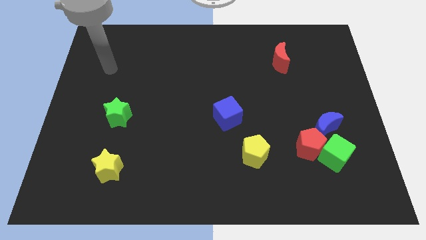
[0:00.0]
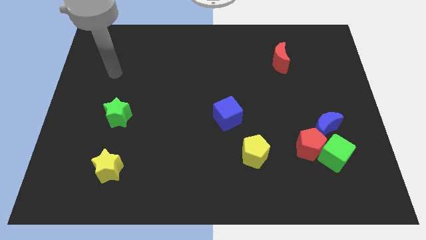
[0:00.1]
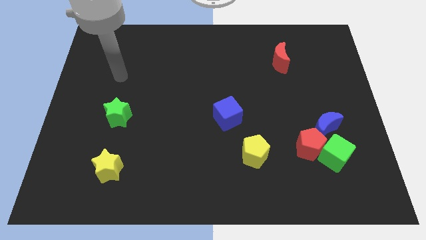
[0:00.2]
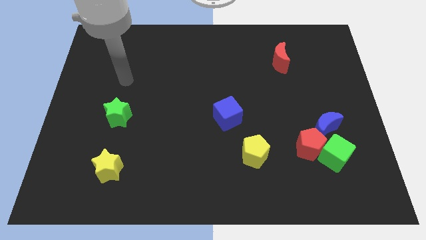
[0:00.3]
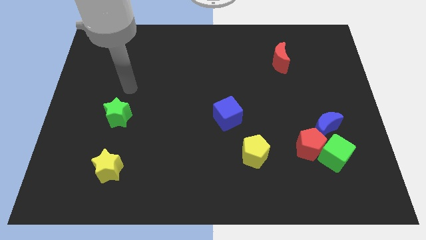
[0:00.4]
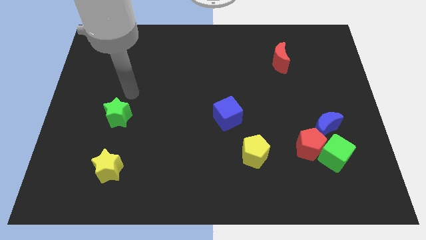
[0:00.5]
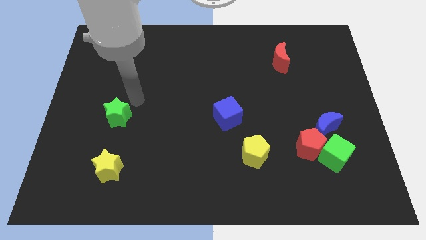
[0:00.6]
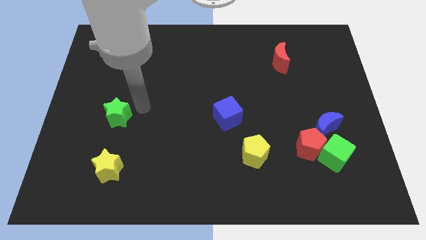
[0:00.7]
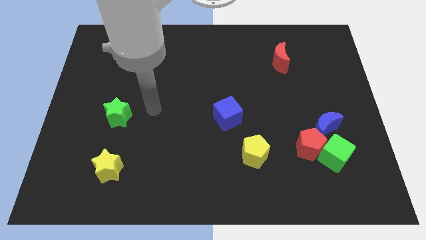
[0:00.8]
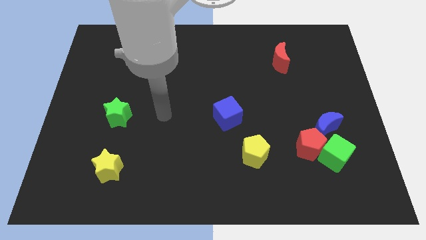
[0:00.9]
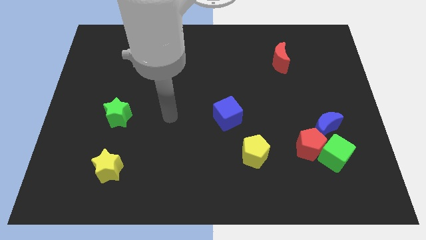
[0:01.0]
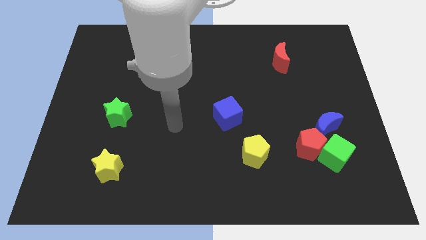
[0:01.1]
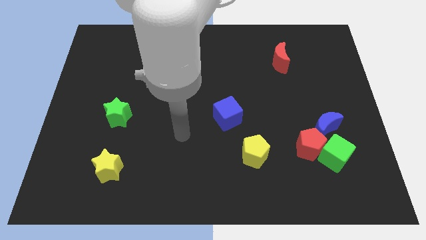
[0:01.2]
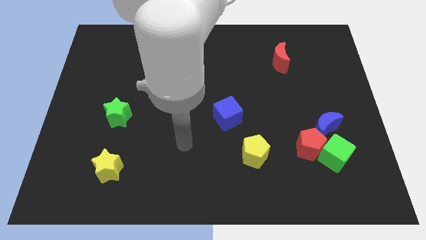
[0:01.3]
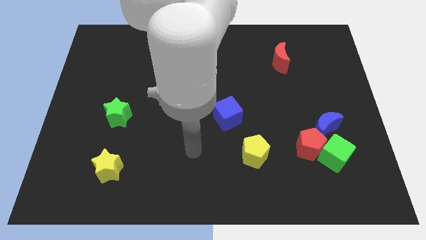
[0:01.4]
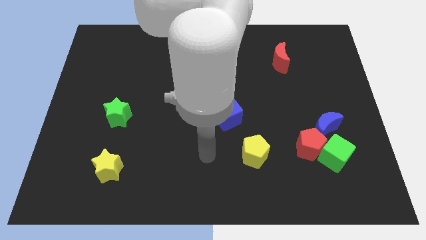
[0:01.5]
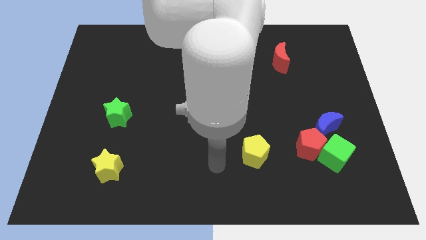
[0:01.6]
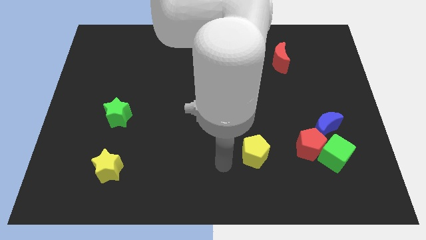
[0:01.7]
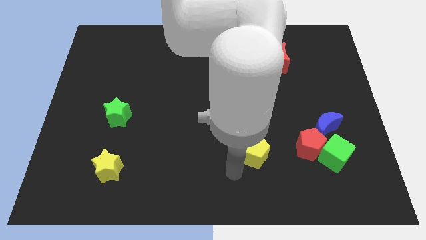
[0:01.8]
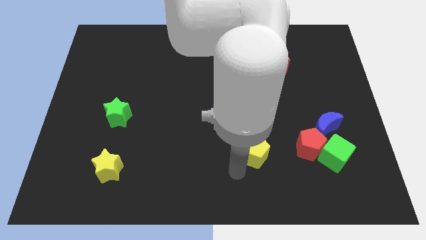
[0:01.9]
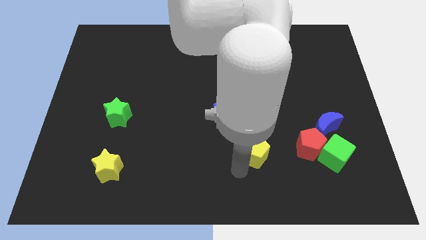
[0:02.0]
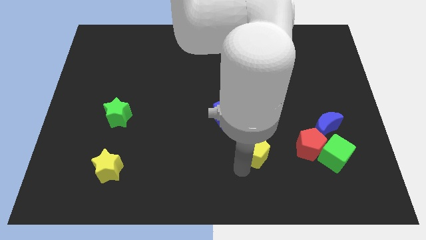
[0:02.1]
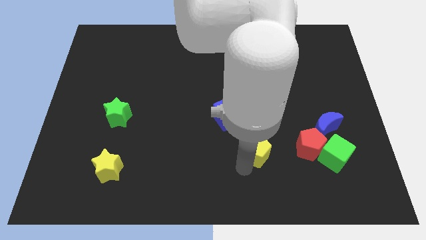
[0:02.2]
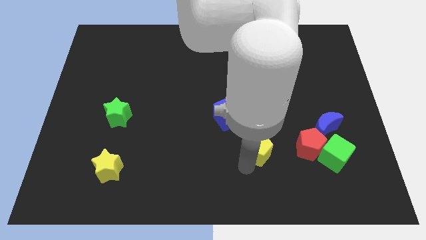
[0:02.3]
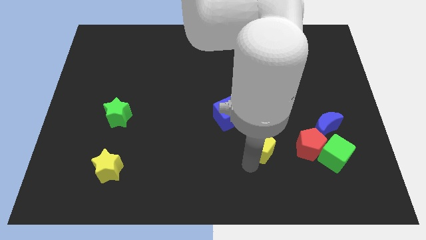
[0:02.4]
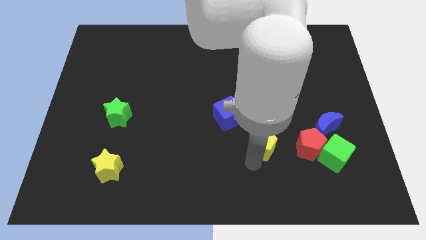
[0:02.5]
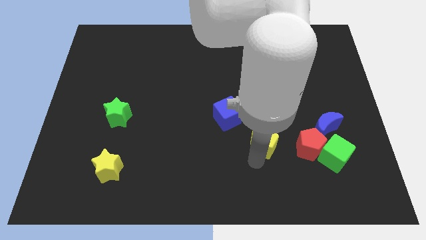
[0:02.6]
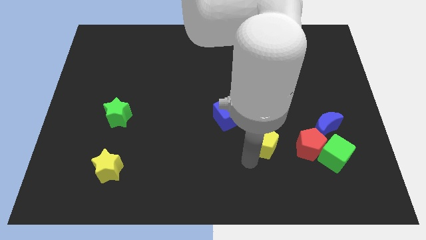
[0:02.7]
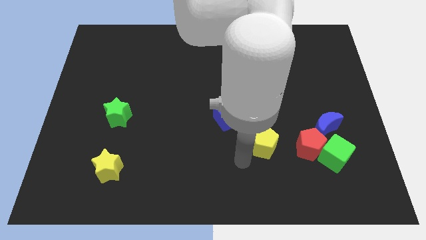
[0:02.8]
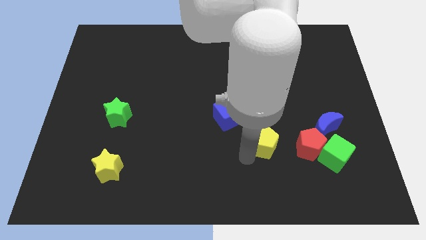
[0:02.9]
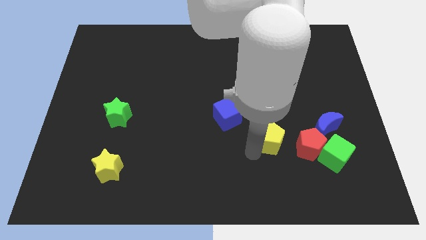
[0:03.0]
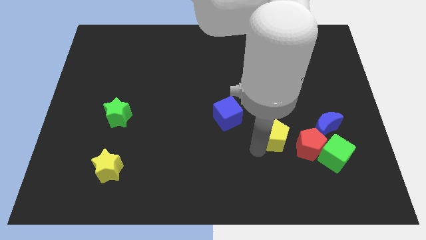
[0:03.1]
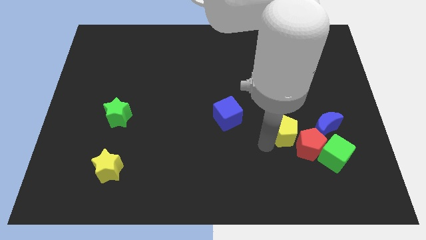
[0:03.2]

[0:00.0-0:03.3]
push the yellow pentagon diagonally up and to the right a bit

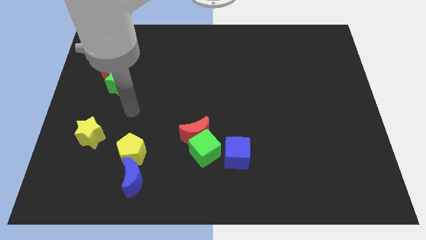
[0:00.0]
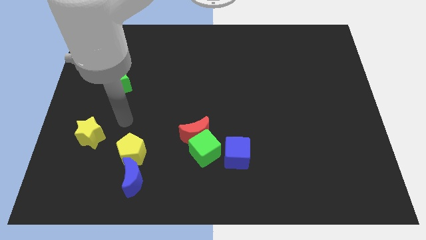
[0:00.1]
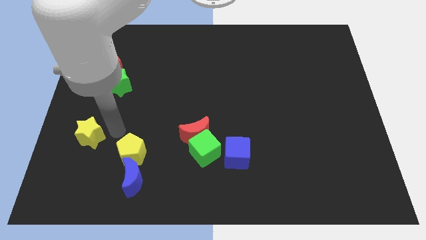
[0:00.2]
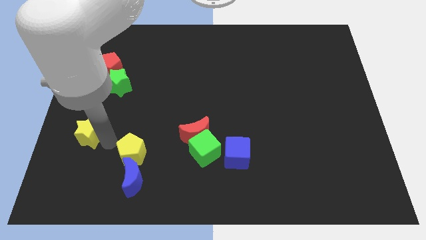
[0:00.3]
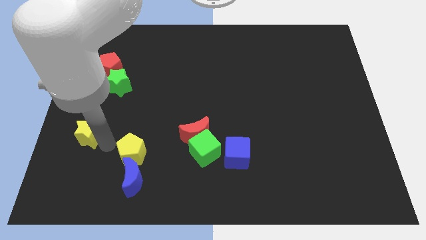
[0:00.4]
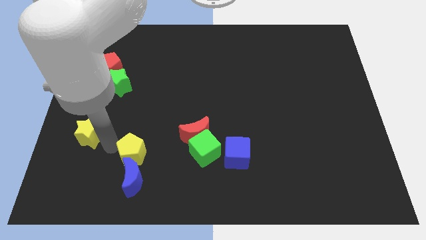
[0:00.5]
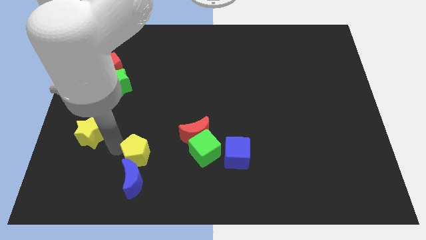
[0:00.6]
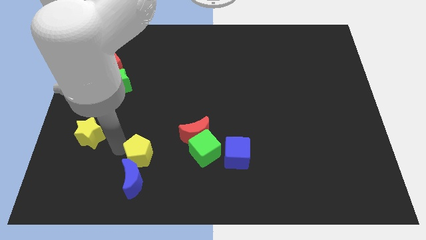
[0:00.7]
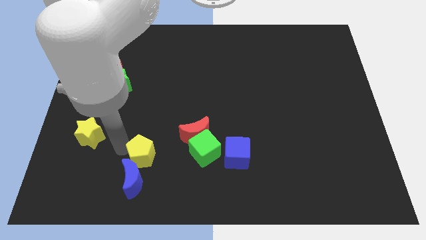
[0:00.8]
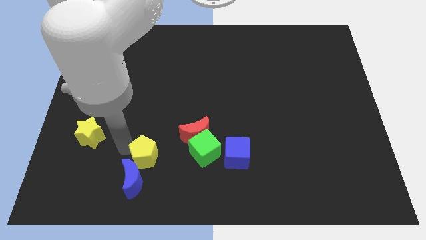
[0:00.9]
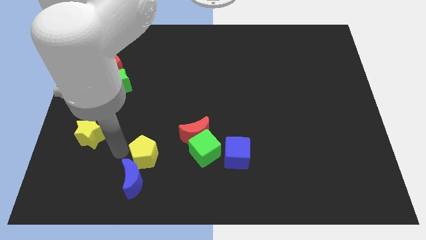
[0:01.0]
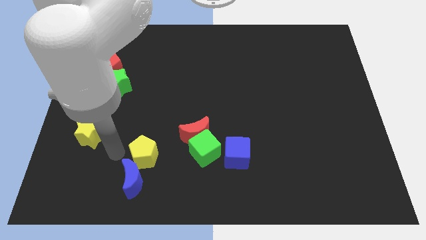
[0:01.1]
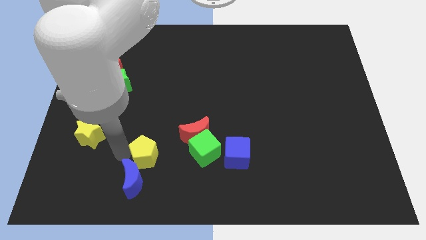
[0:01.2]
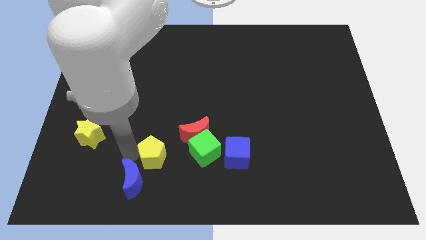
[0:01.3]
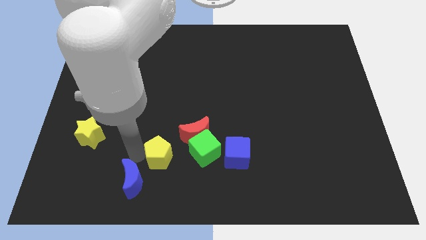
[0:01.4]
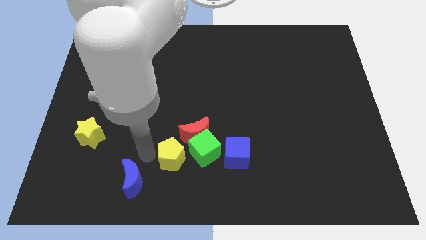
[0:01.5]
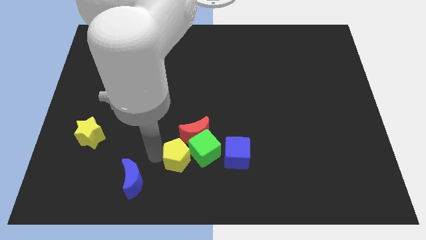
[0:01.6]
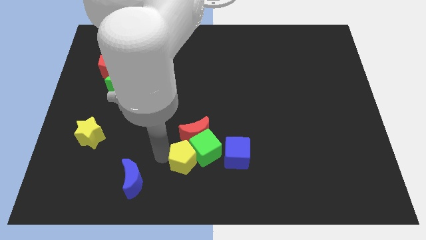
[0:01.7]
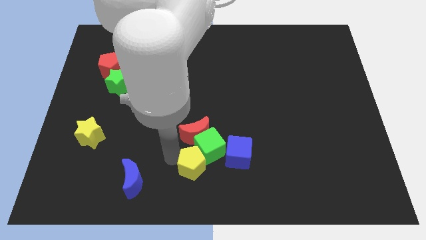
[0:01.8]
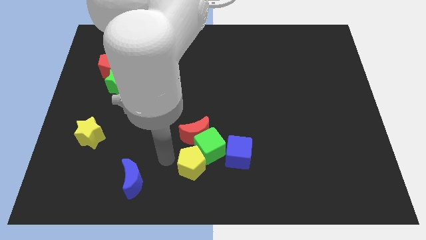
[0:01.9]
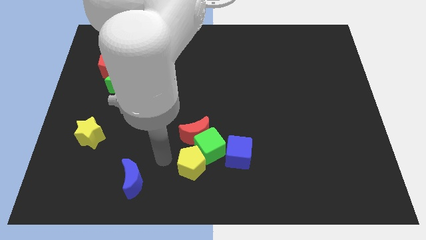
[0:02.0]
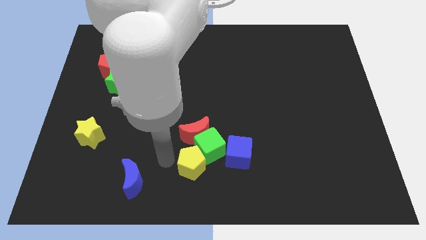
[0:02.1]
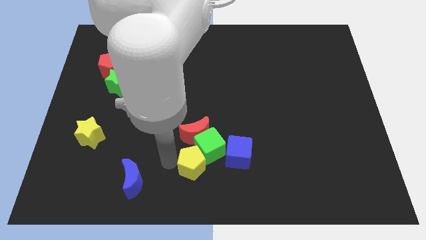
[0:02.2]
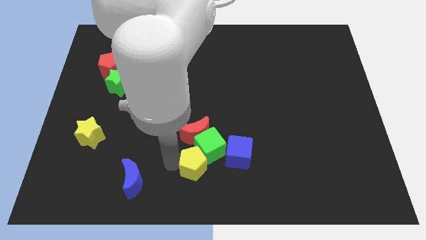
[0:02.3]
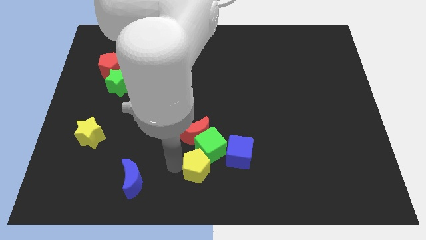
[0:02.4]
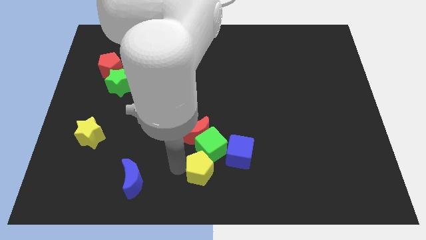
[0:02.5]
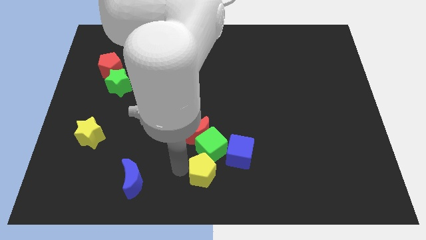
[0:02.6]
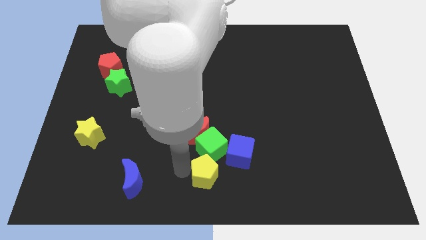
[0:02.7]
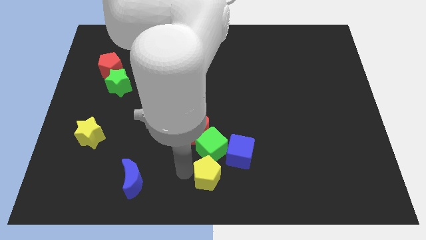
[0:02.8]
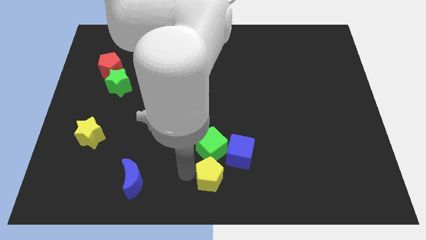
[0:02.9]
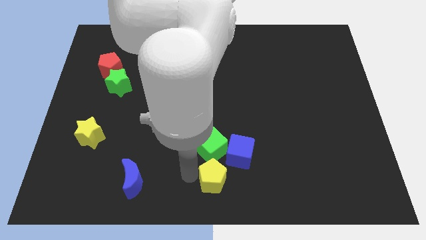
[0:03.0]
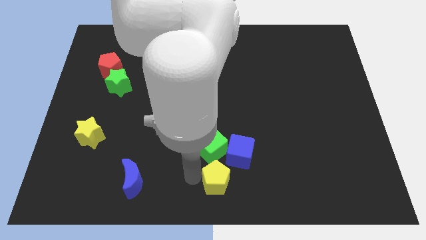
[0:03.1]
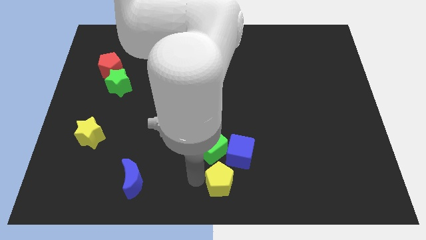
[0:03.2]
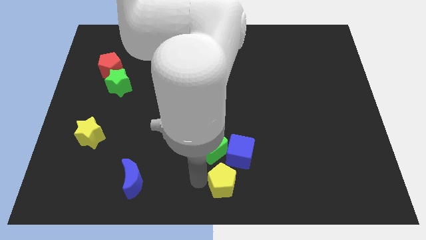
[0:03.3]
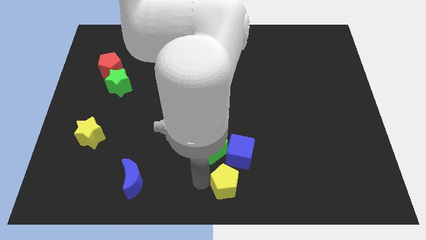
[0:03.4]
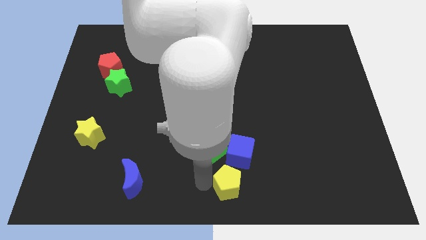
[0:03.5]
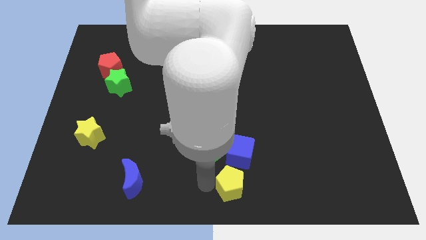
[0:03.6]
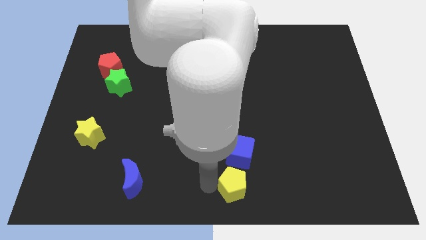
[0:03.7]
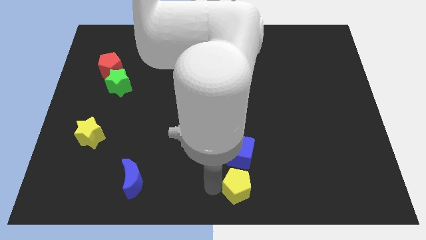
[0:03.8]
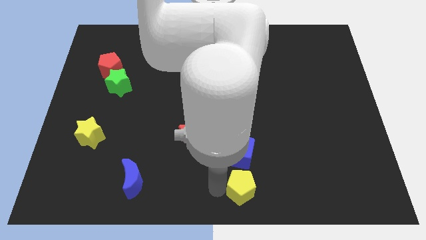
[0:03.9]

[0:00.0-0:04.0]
move the yellow pentagon right

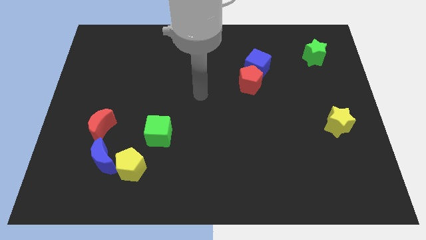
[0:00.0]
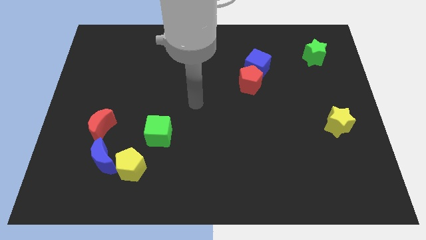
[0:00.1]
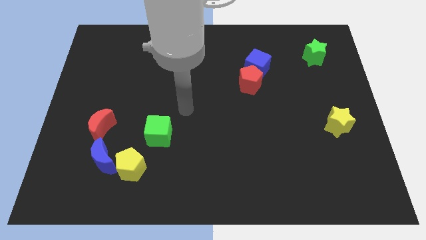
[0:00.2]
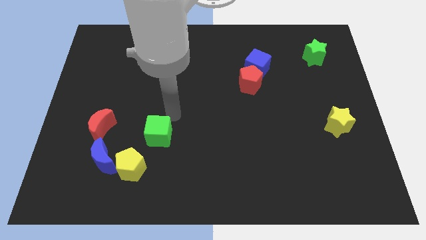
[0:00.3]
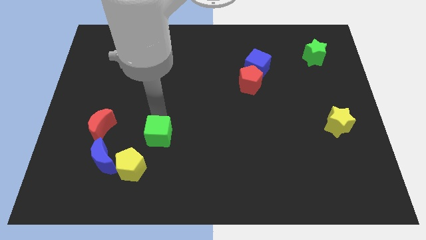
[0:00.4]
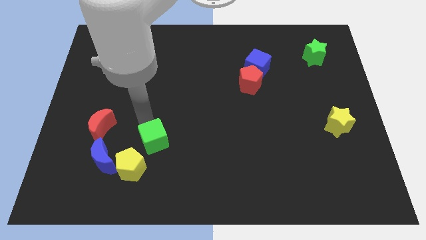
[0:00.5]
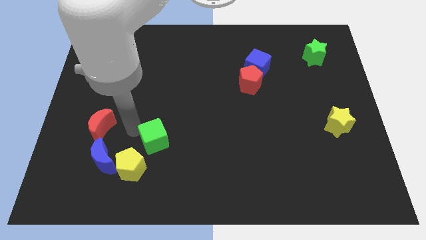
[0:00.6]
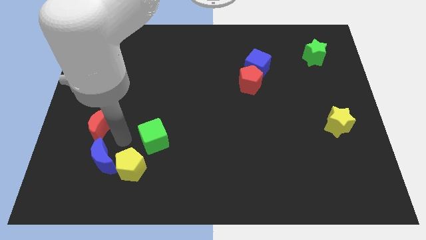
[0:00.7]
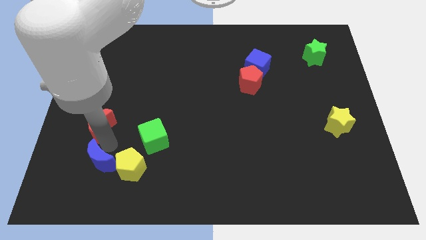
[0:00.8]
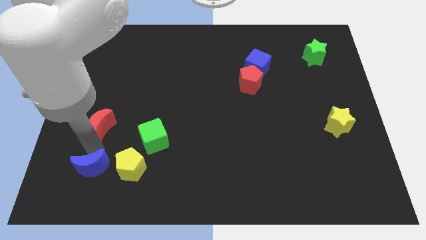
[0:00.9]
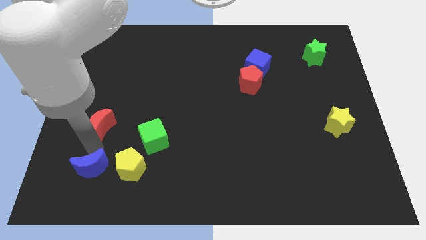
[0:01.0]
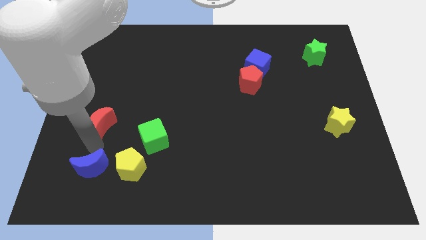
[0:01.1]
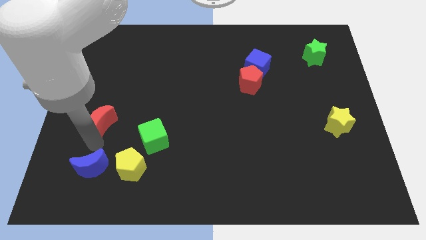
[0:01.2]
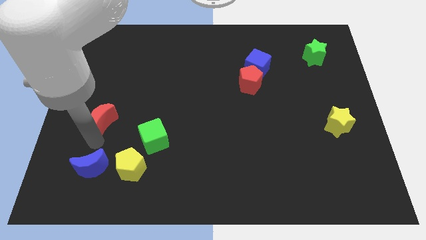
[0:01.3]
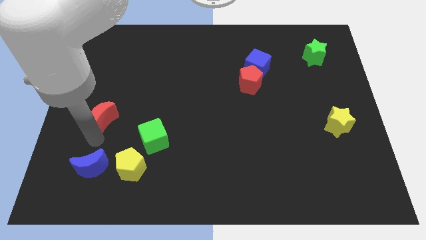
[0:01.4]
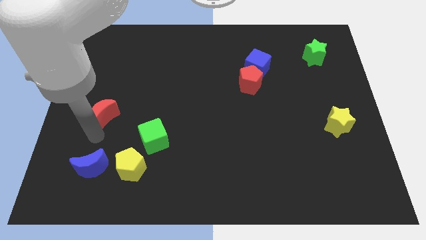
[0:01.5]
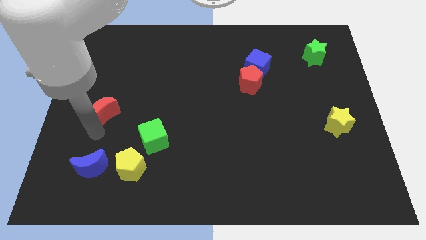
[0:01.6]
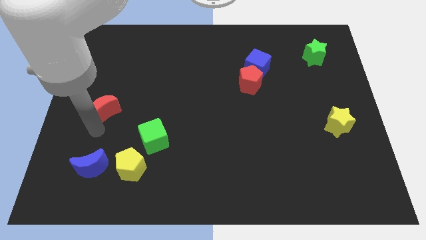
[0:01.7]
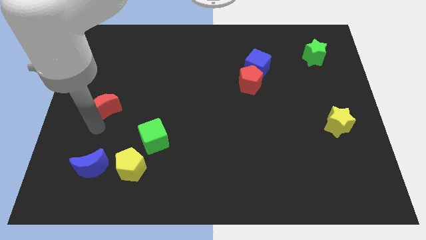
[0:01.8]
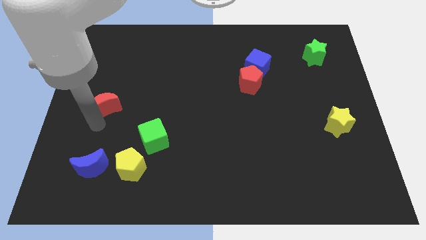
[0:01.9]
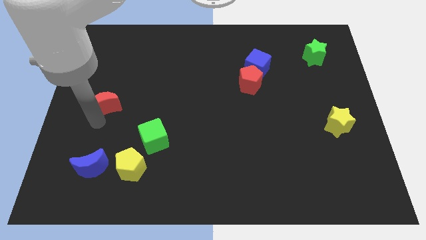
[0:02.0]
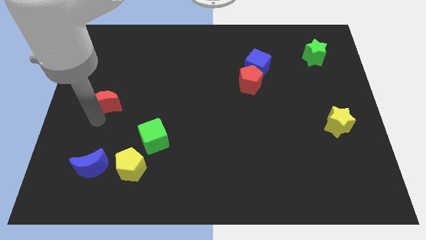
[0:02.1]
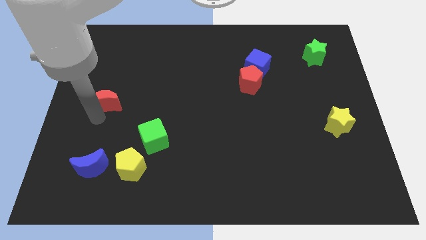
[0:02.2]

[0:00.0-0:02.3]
slide the red moon upwards a bit
